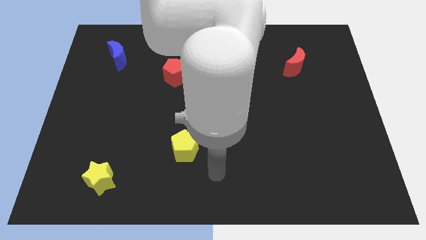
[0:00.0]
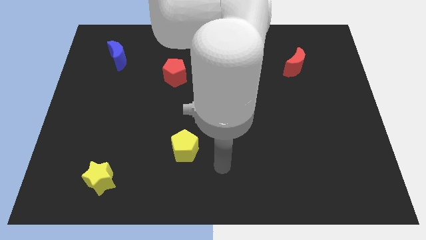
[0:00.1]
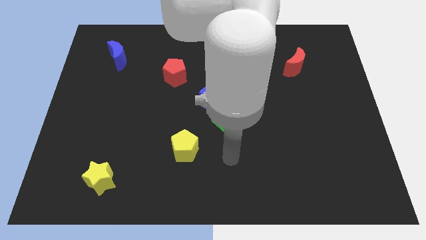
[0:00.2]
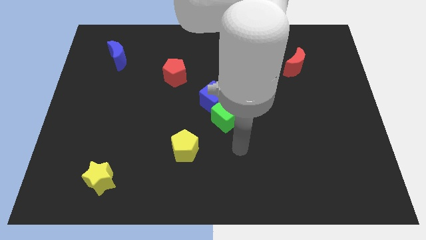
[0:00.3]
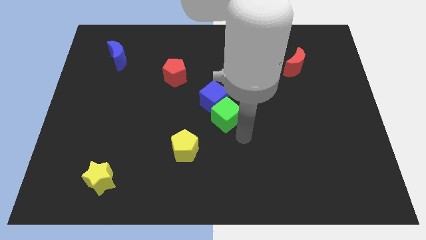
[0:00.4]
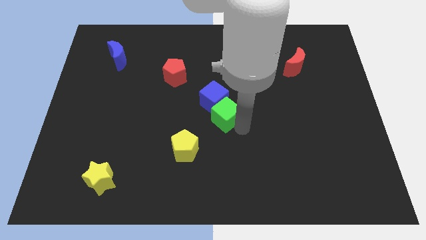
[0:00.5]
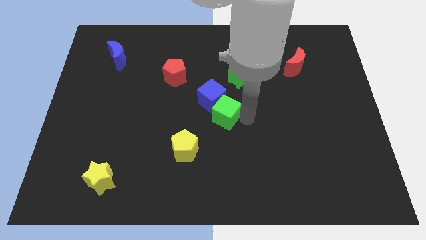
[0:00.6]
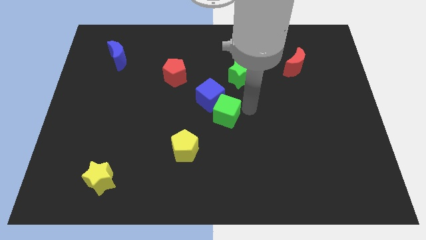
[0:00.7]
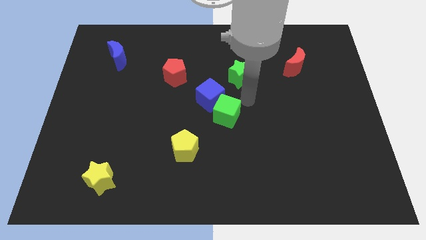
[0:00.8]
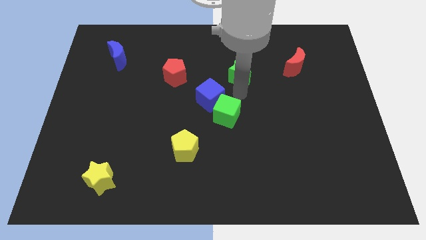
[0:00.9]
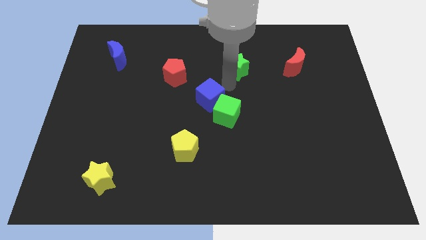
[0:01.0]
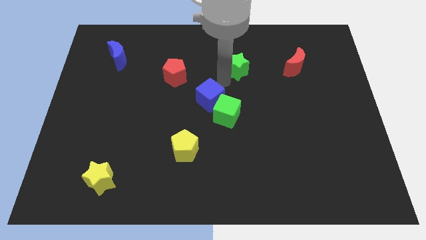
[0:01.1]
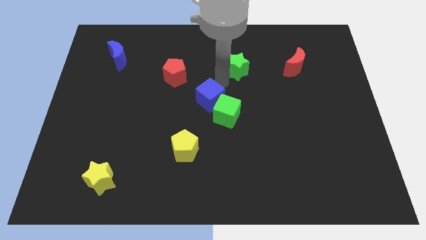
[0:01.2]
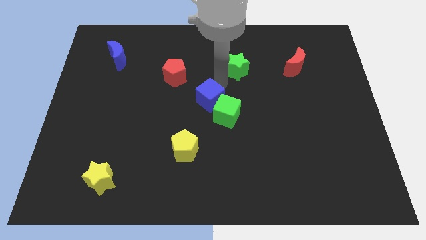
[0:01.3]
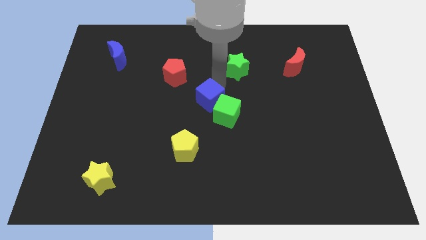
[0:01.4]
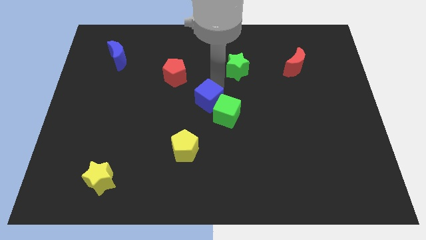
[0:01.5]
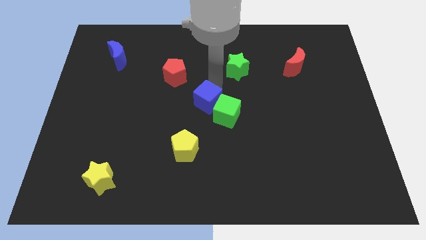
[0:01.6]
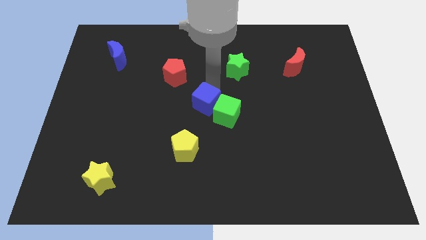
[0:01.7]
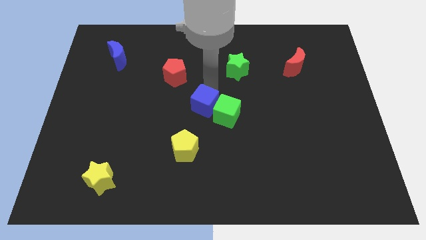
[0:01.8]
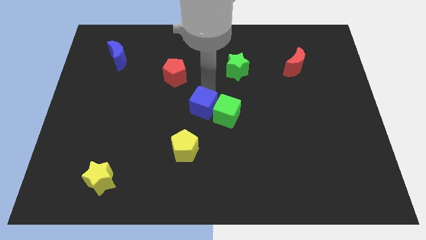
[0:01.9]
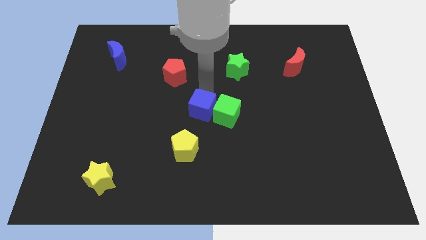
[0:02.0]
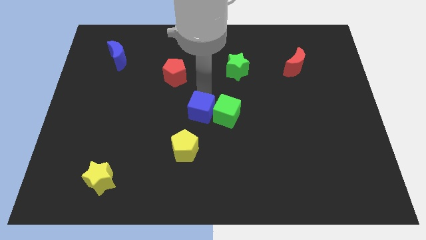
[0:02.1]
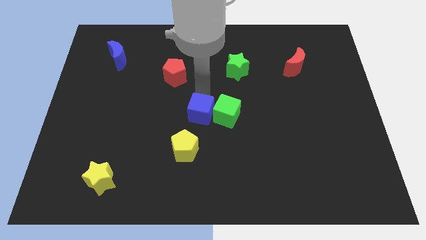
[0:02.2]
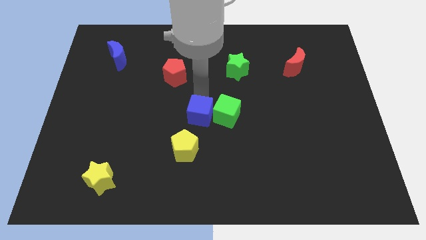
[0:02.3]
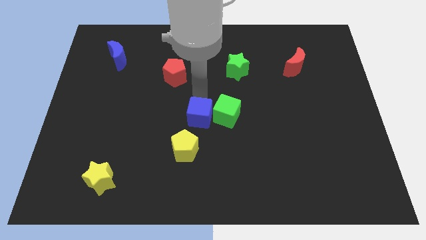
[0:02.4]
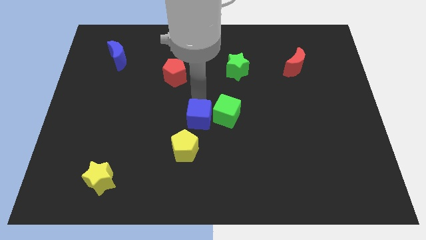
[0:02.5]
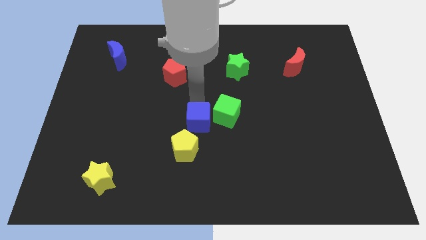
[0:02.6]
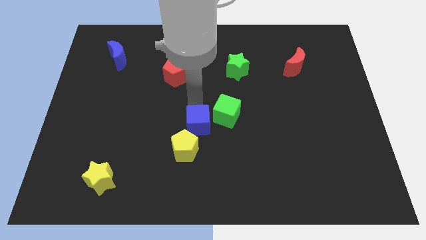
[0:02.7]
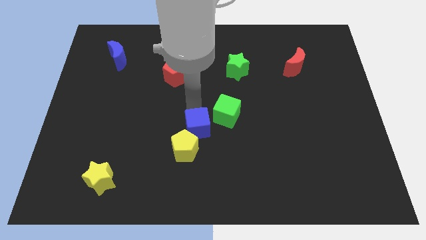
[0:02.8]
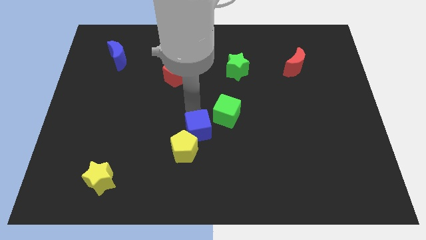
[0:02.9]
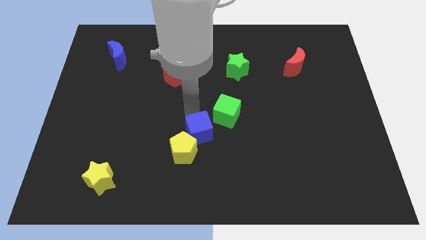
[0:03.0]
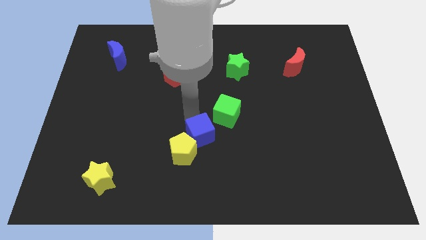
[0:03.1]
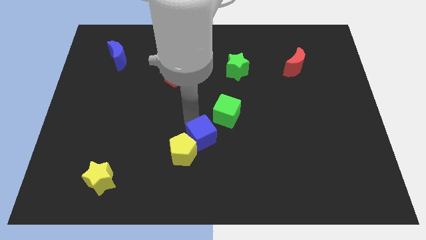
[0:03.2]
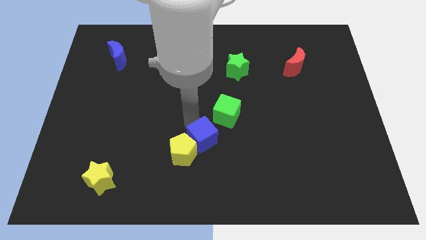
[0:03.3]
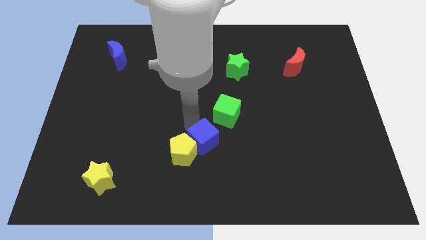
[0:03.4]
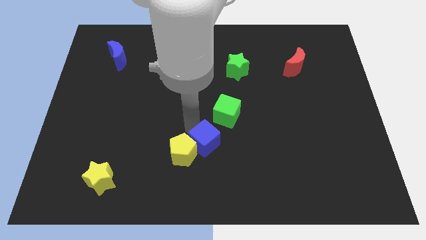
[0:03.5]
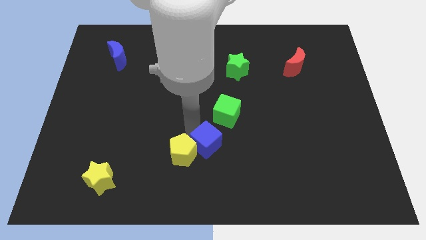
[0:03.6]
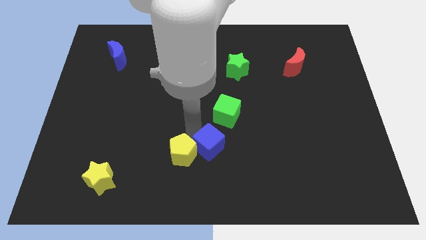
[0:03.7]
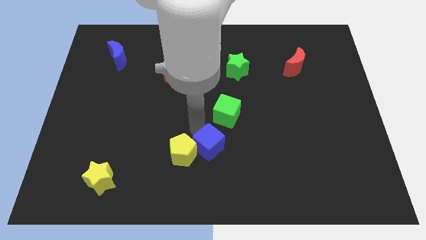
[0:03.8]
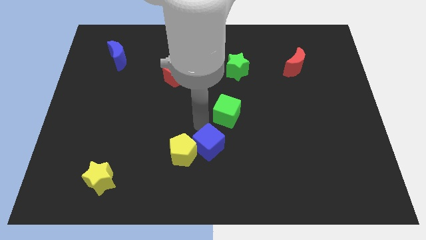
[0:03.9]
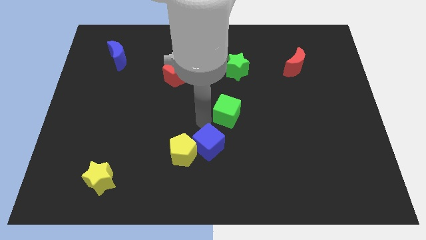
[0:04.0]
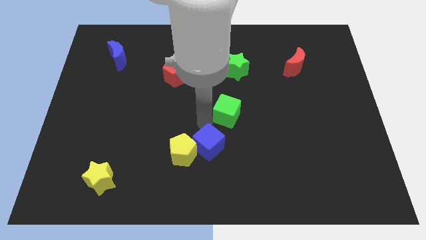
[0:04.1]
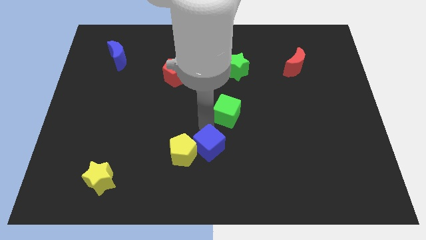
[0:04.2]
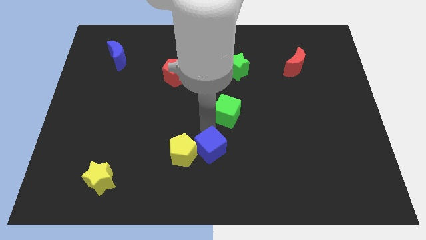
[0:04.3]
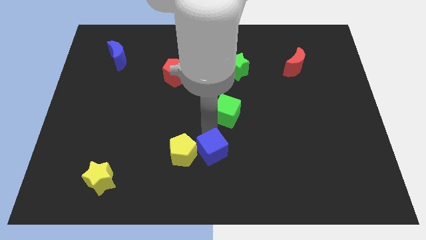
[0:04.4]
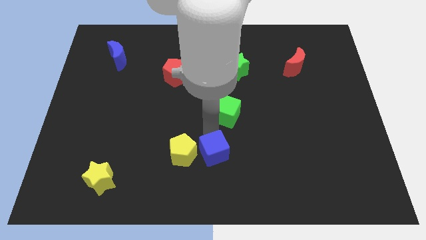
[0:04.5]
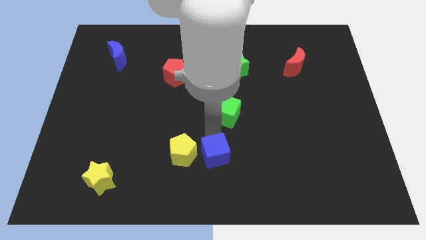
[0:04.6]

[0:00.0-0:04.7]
push the blue cube to the bottom

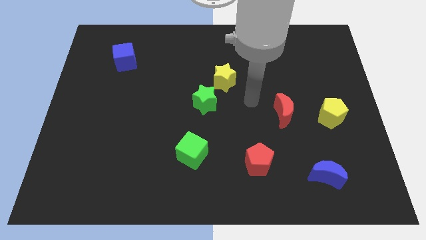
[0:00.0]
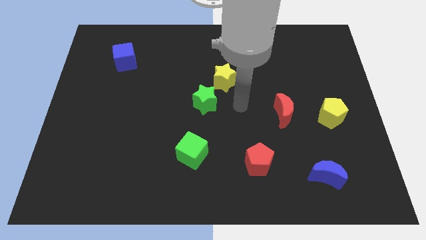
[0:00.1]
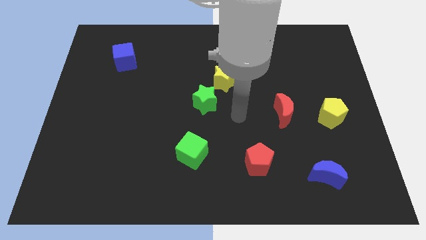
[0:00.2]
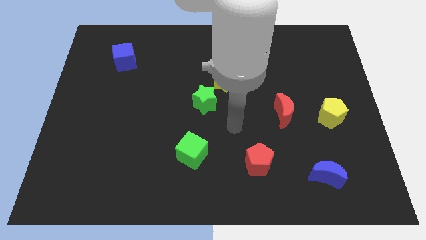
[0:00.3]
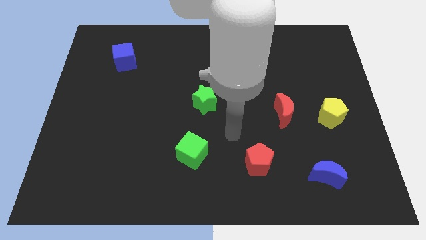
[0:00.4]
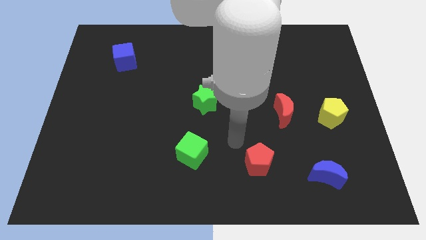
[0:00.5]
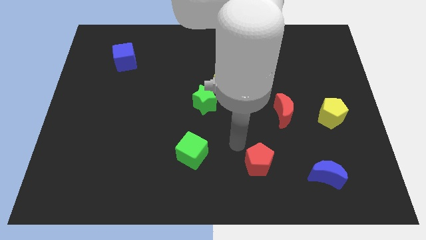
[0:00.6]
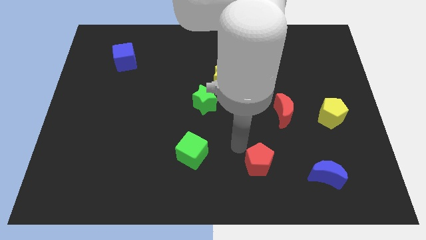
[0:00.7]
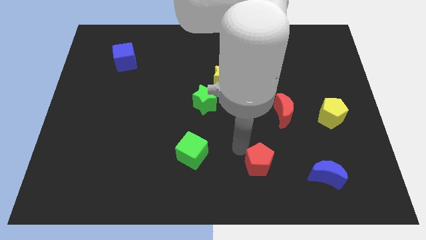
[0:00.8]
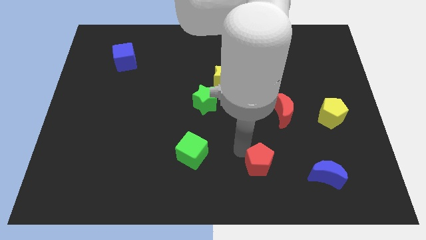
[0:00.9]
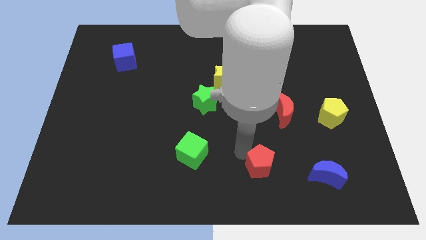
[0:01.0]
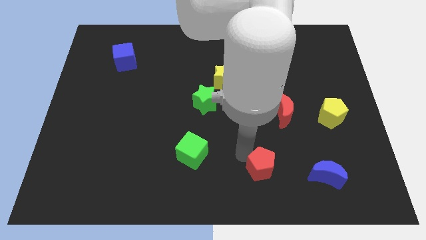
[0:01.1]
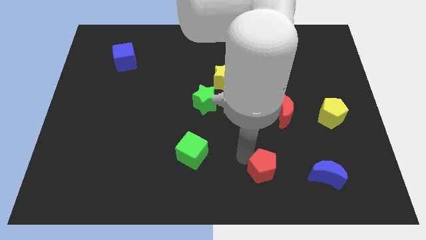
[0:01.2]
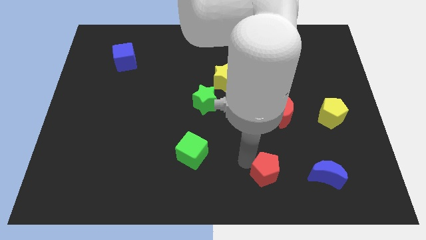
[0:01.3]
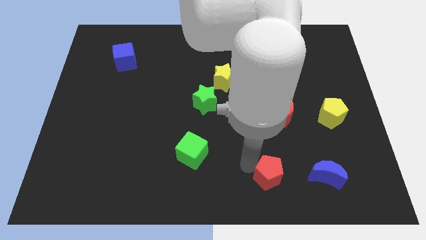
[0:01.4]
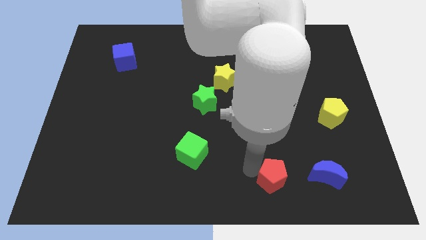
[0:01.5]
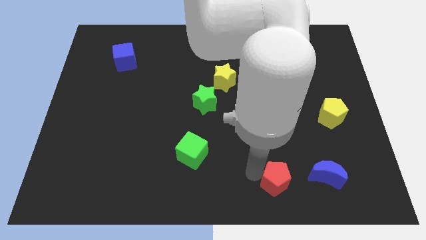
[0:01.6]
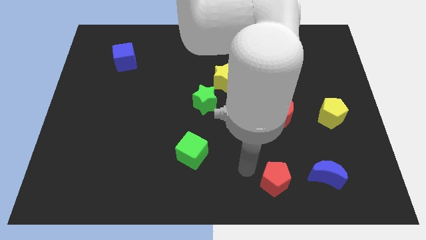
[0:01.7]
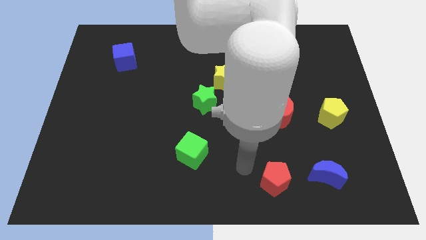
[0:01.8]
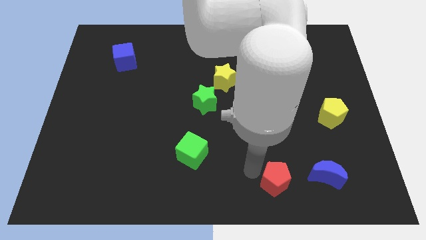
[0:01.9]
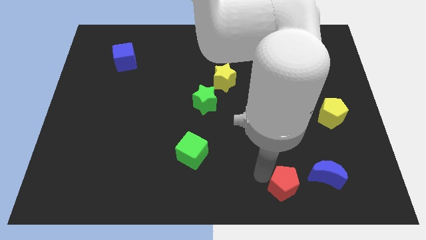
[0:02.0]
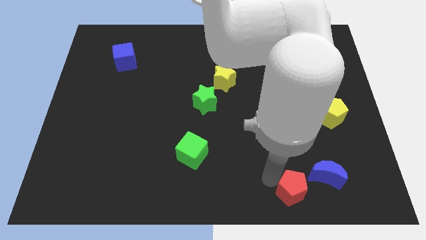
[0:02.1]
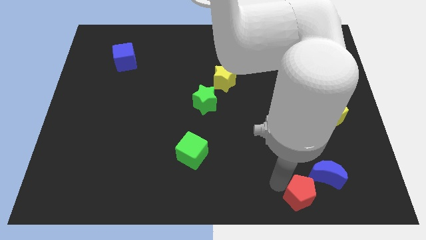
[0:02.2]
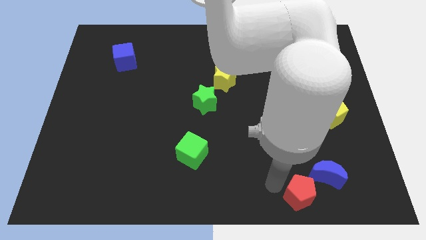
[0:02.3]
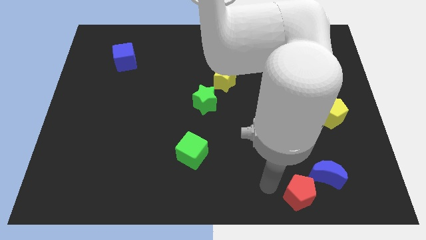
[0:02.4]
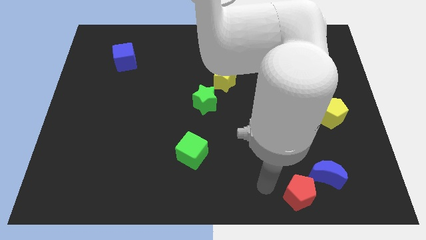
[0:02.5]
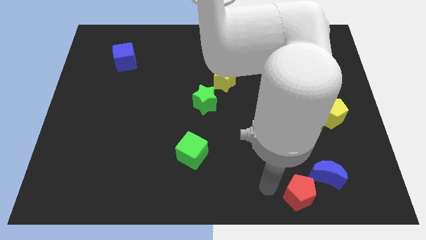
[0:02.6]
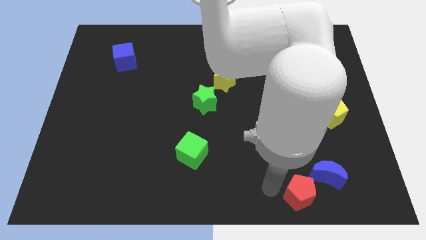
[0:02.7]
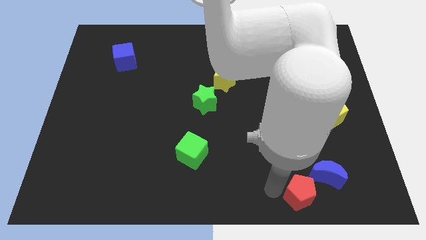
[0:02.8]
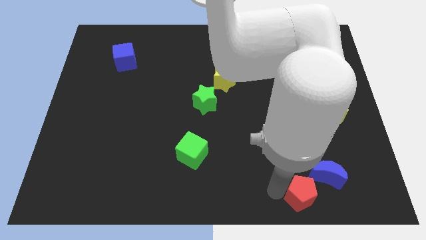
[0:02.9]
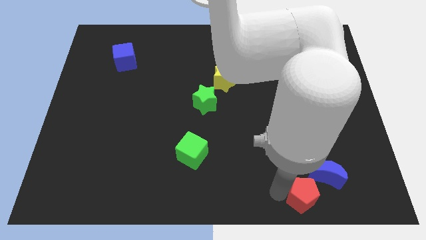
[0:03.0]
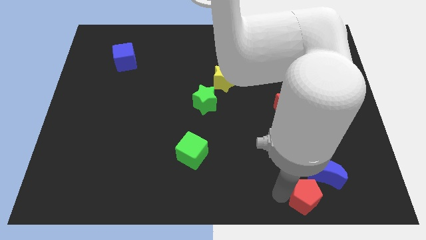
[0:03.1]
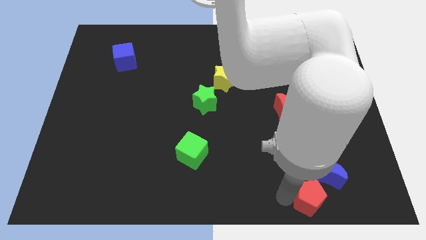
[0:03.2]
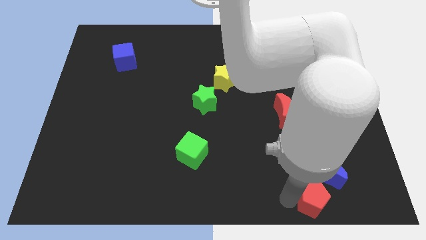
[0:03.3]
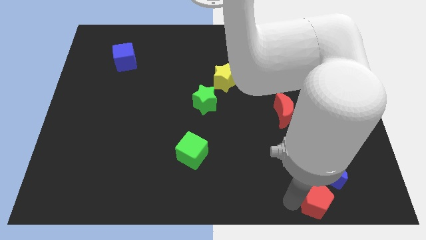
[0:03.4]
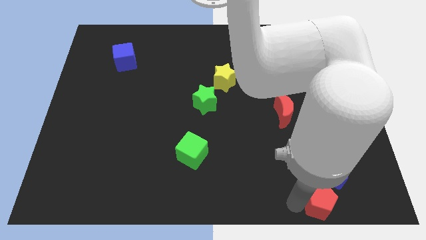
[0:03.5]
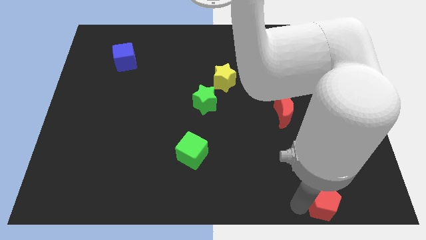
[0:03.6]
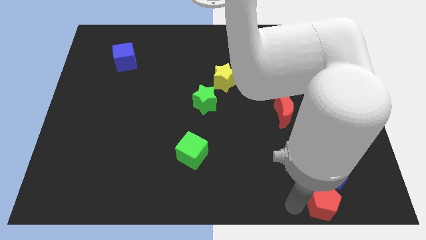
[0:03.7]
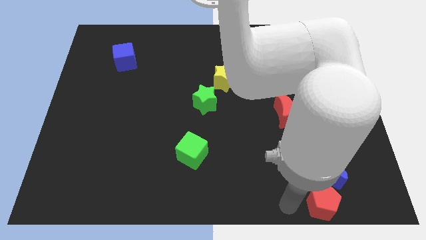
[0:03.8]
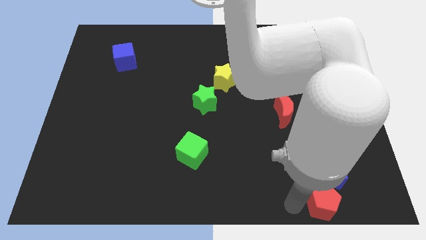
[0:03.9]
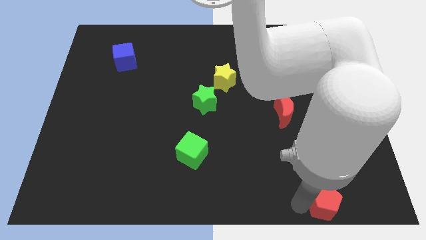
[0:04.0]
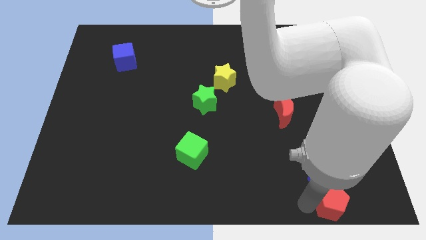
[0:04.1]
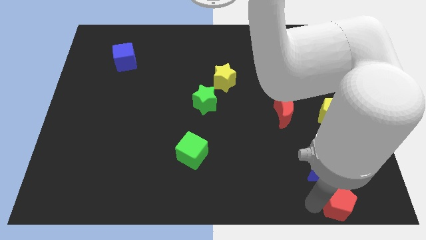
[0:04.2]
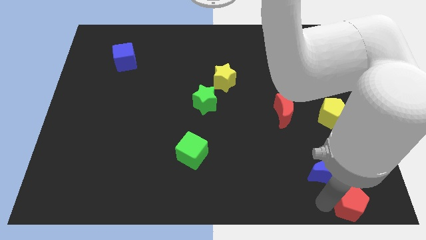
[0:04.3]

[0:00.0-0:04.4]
put the red pentagon to the bottom right corner
